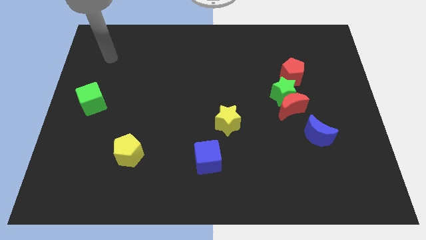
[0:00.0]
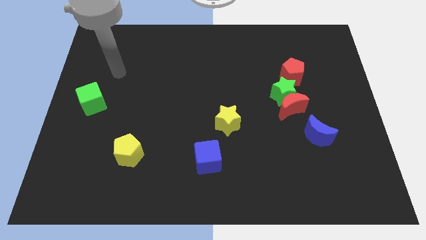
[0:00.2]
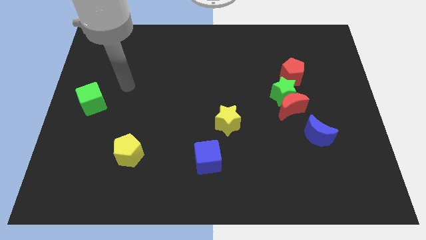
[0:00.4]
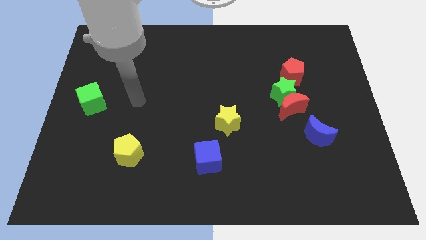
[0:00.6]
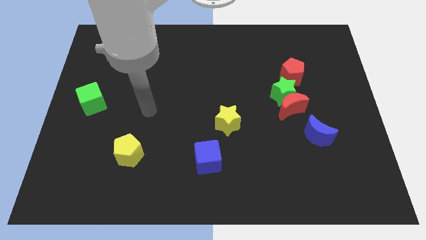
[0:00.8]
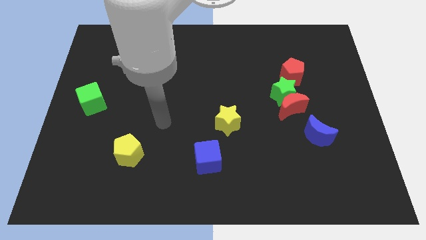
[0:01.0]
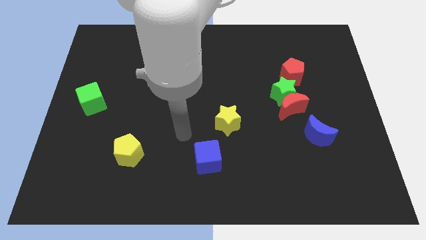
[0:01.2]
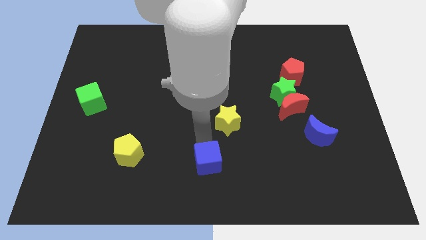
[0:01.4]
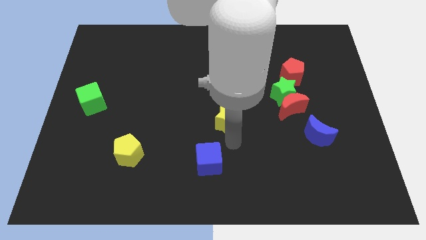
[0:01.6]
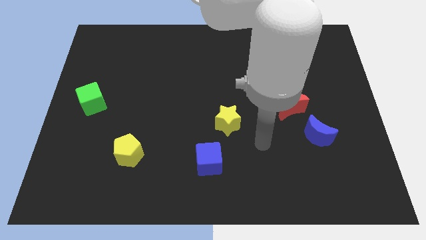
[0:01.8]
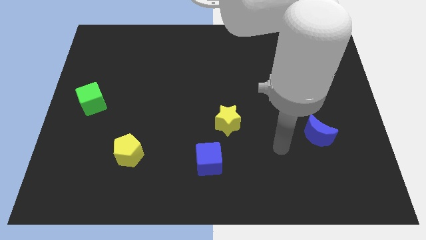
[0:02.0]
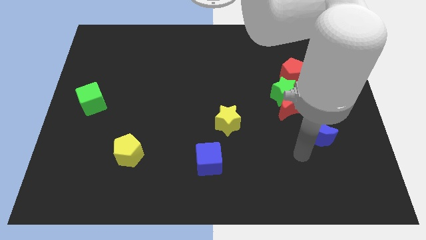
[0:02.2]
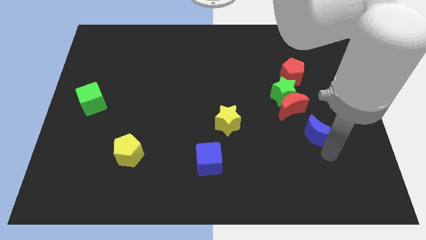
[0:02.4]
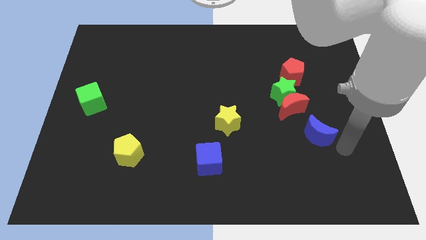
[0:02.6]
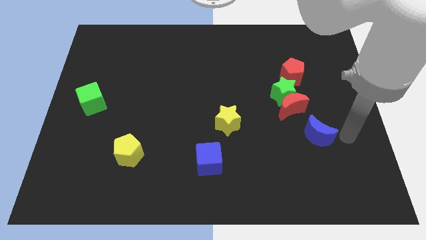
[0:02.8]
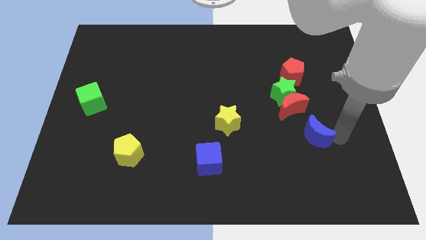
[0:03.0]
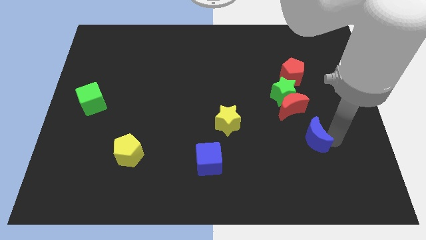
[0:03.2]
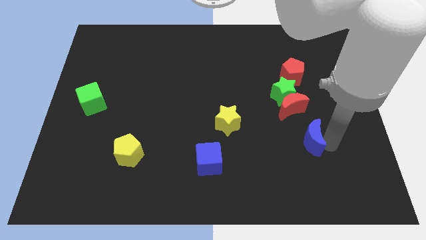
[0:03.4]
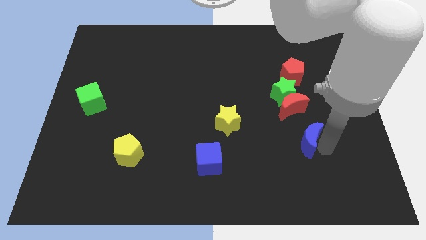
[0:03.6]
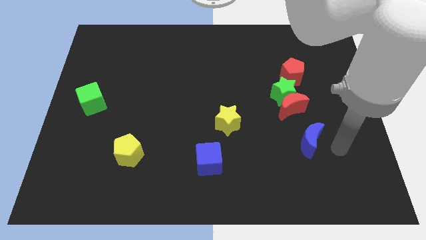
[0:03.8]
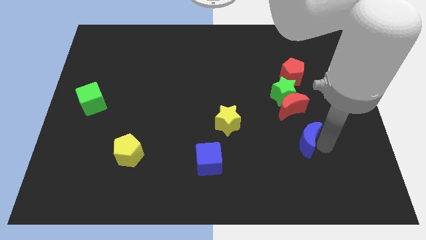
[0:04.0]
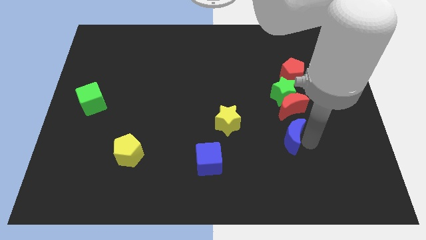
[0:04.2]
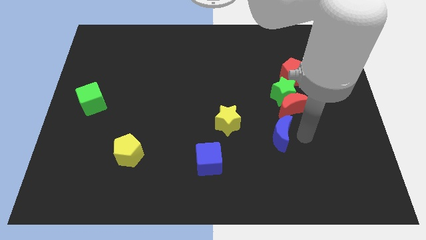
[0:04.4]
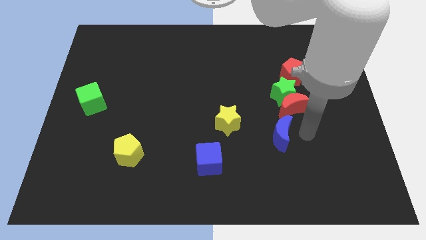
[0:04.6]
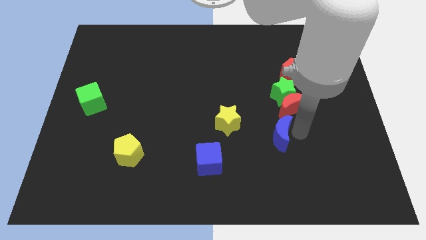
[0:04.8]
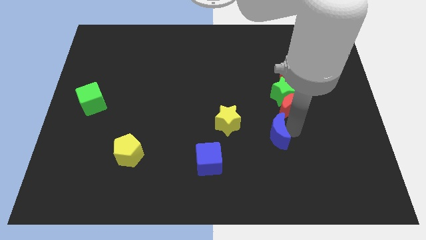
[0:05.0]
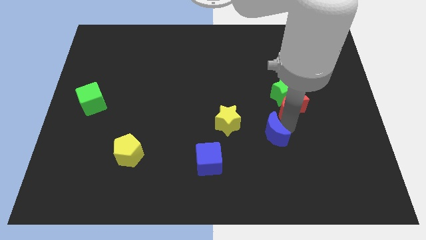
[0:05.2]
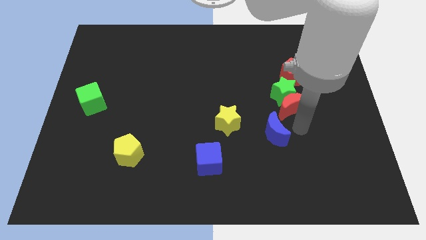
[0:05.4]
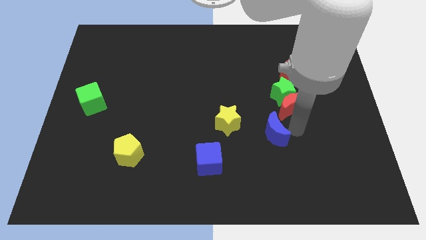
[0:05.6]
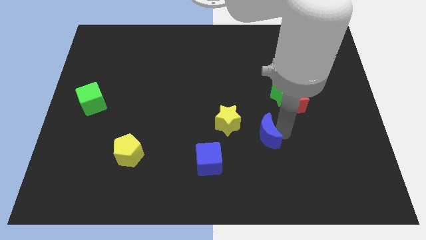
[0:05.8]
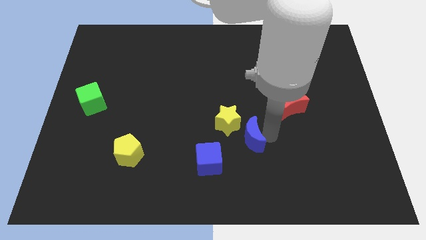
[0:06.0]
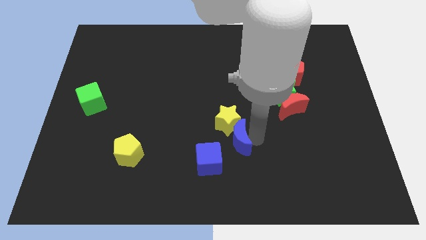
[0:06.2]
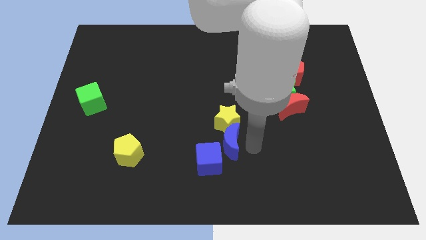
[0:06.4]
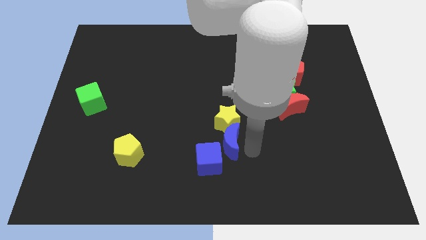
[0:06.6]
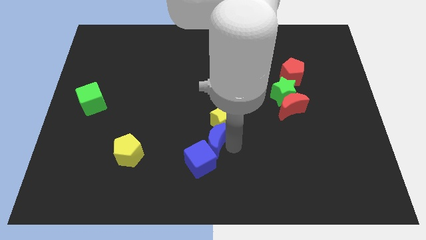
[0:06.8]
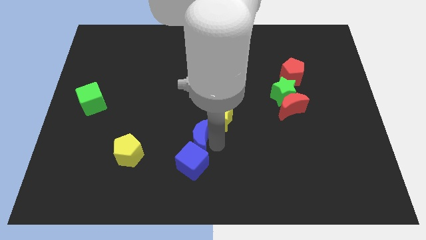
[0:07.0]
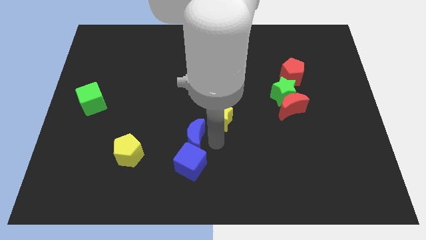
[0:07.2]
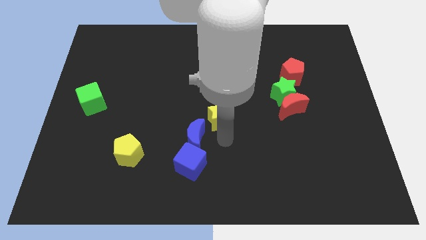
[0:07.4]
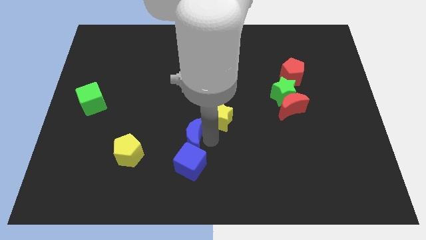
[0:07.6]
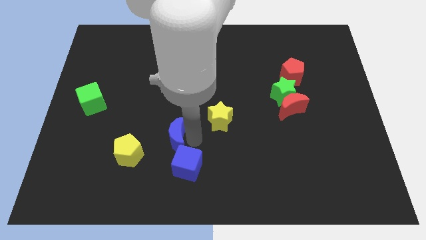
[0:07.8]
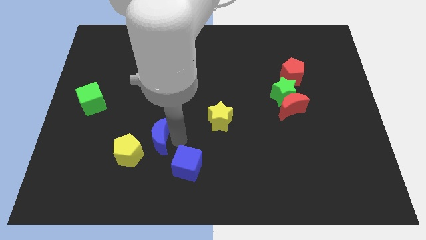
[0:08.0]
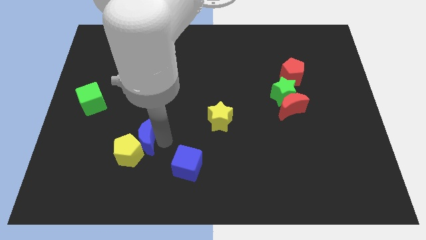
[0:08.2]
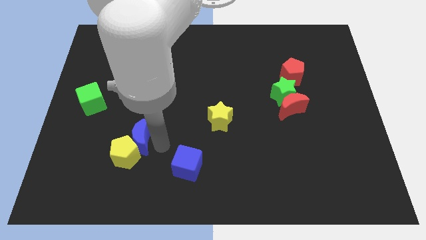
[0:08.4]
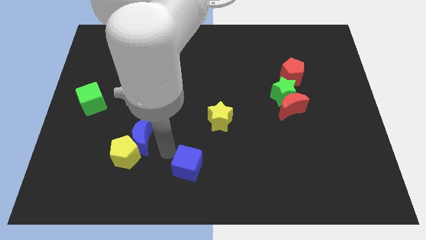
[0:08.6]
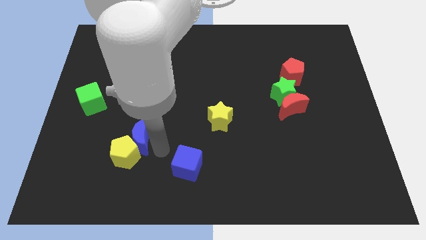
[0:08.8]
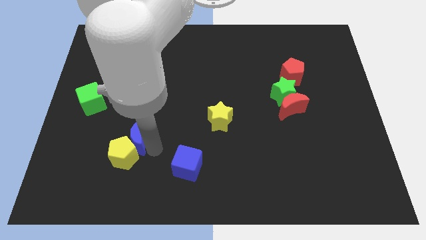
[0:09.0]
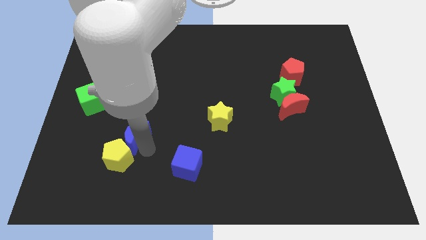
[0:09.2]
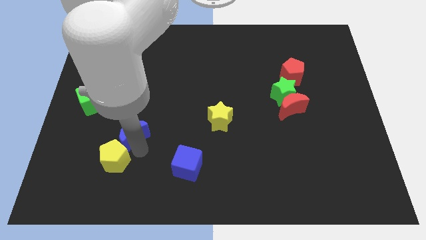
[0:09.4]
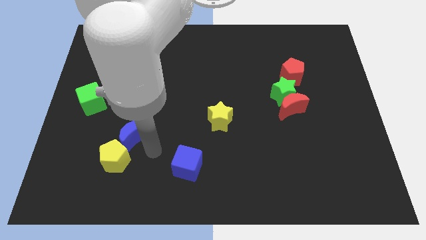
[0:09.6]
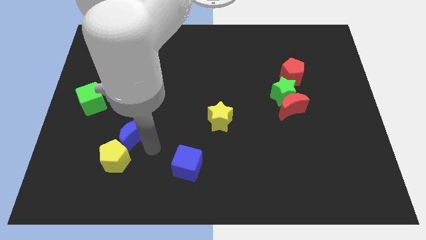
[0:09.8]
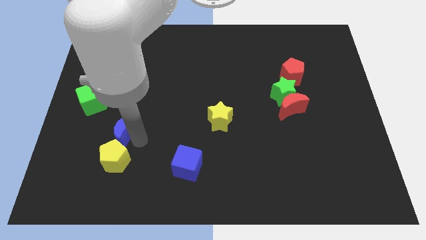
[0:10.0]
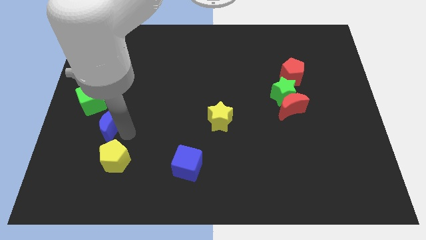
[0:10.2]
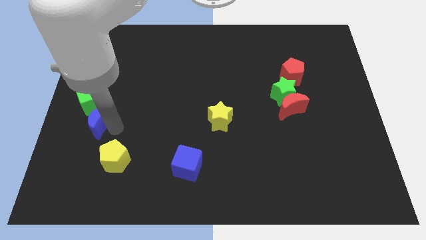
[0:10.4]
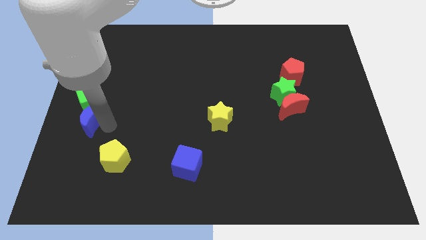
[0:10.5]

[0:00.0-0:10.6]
move the blue moon to the center left

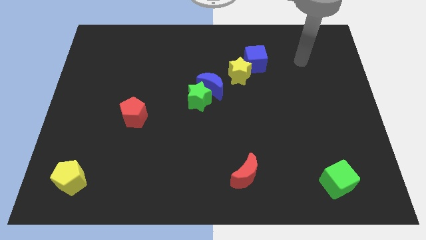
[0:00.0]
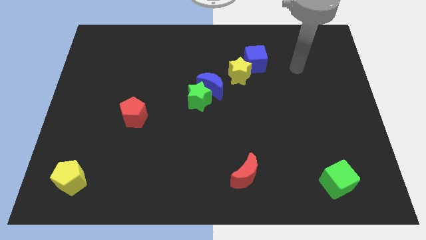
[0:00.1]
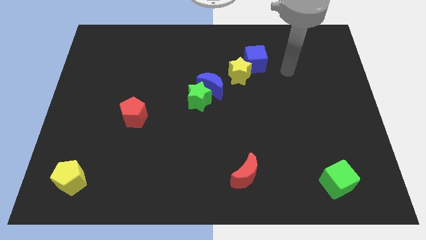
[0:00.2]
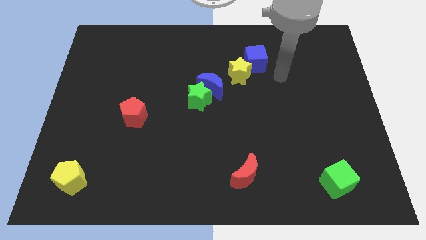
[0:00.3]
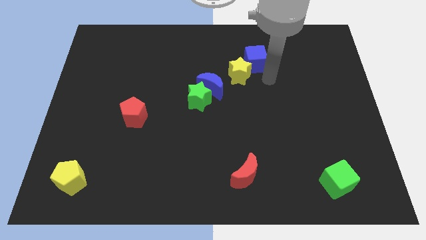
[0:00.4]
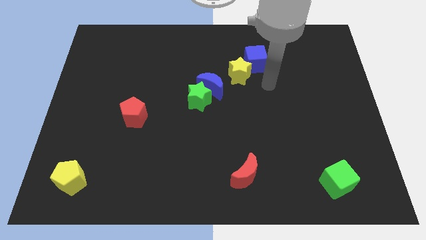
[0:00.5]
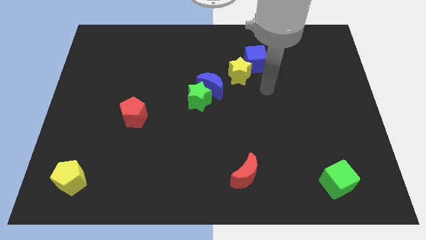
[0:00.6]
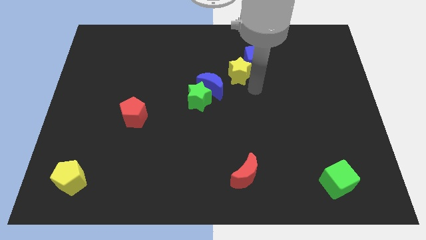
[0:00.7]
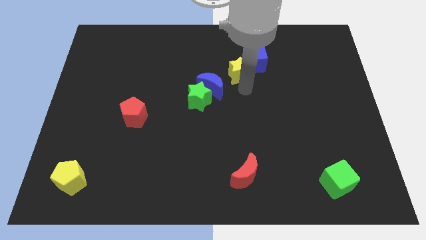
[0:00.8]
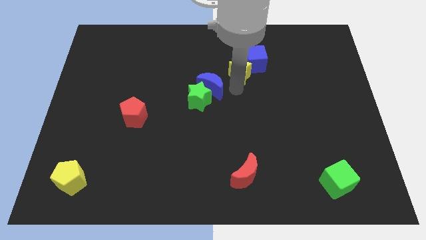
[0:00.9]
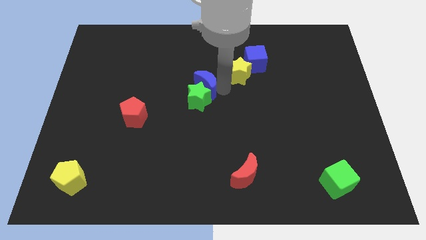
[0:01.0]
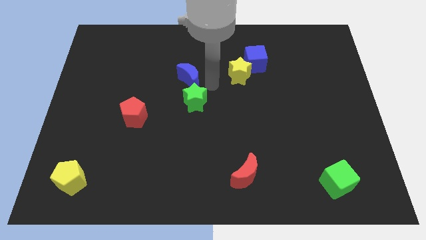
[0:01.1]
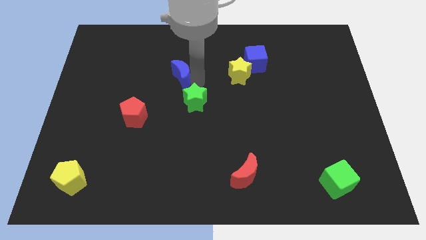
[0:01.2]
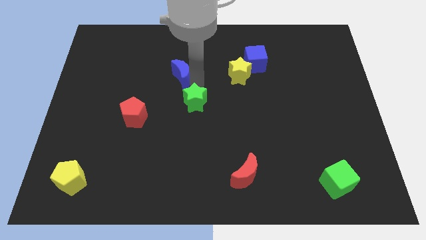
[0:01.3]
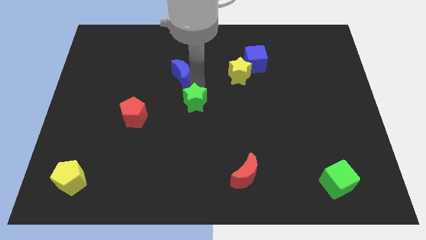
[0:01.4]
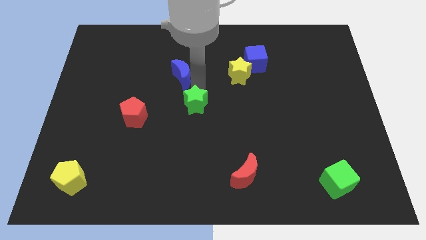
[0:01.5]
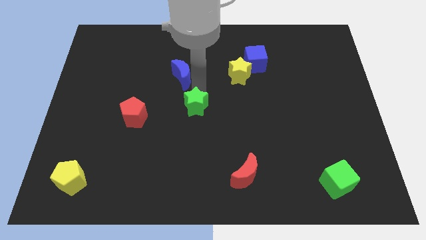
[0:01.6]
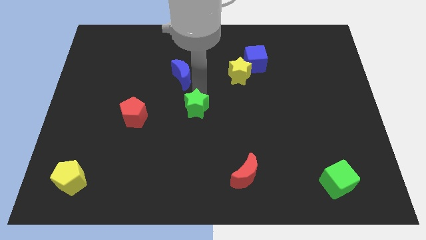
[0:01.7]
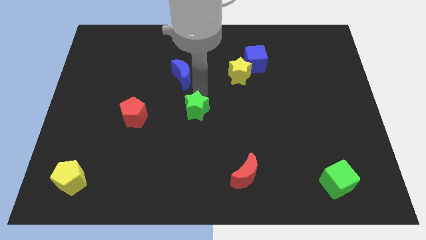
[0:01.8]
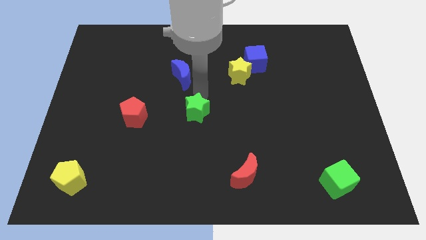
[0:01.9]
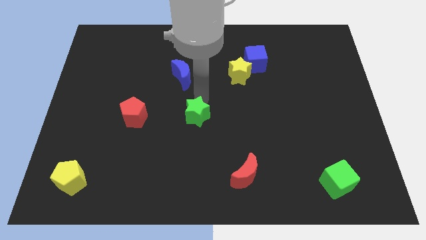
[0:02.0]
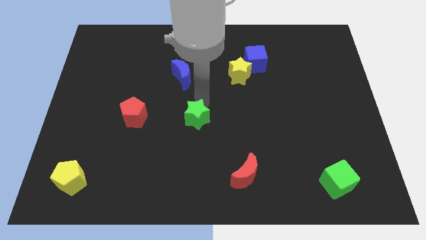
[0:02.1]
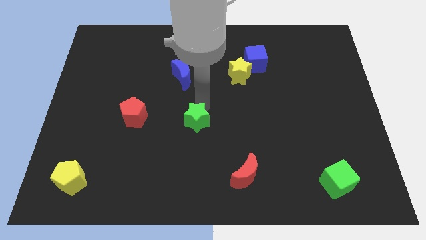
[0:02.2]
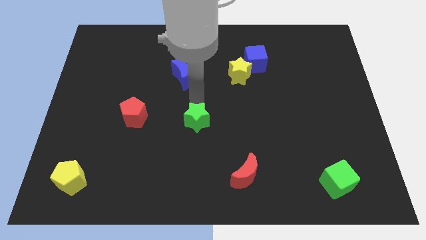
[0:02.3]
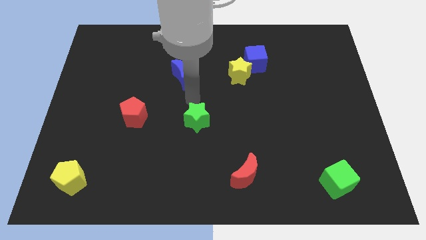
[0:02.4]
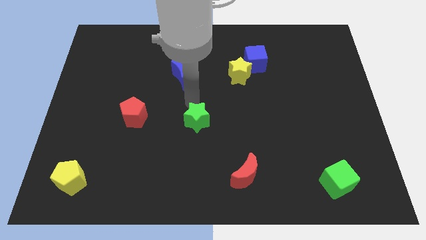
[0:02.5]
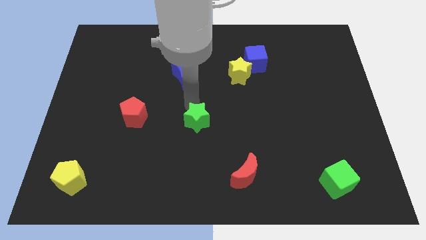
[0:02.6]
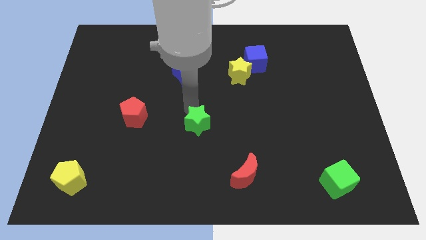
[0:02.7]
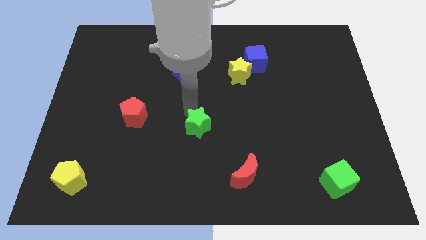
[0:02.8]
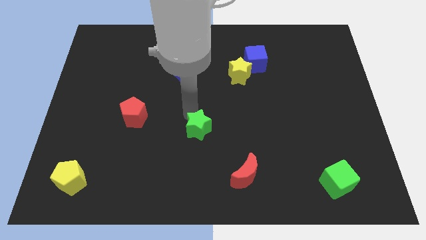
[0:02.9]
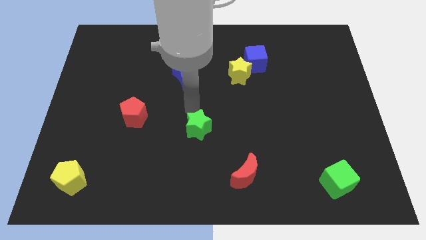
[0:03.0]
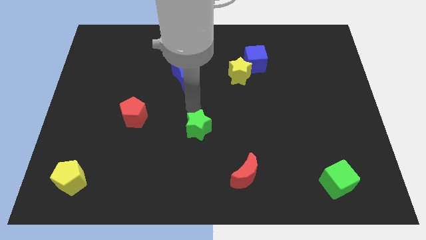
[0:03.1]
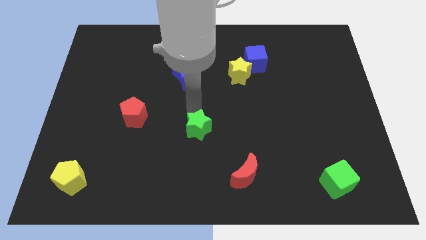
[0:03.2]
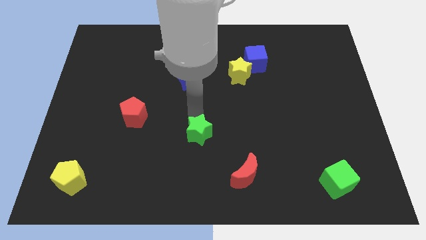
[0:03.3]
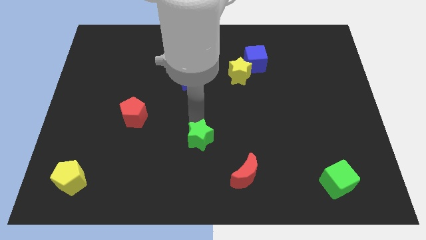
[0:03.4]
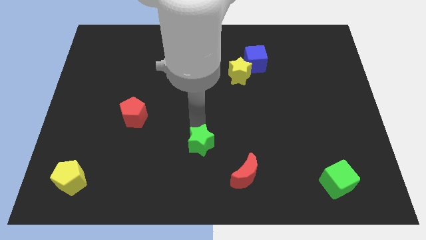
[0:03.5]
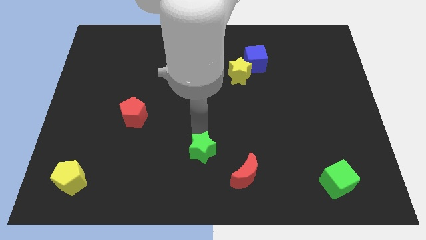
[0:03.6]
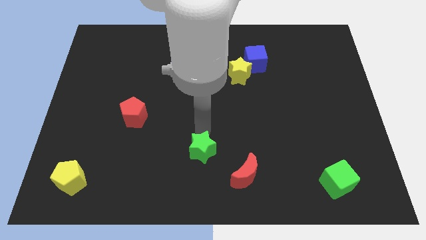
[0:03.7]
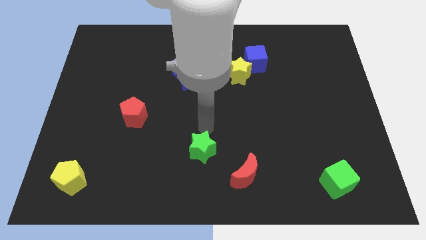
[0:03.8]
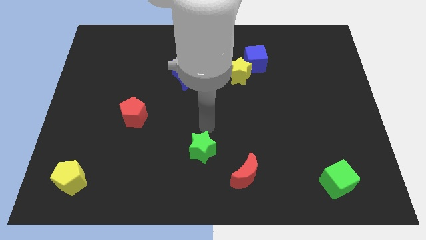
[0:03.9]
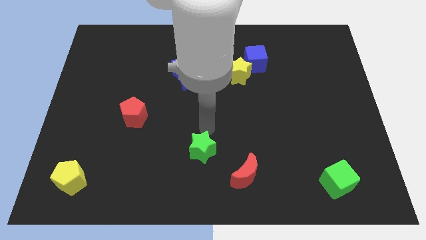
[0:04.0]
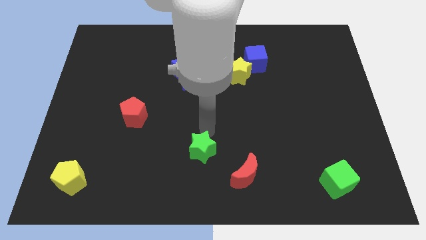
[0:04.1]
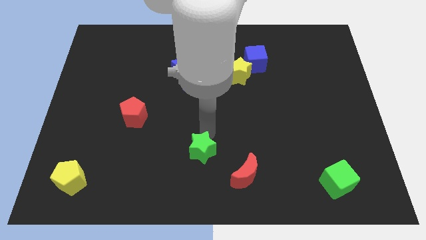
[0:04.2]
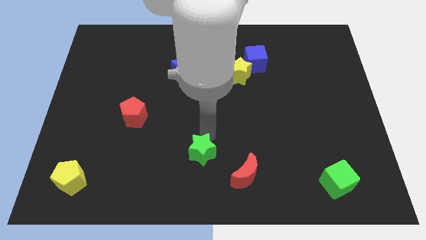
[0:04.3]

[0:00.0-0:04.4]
push the green star to the bottom
